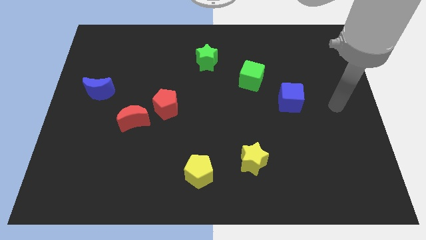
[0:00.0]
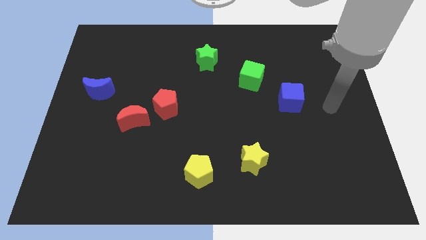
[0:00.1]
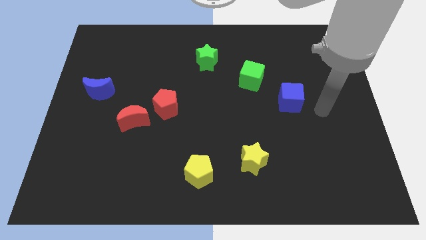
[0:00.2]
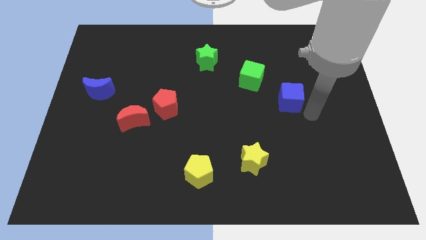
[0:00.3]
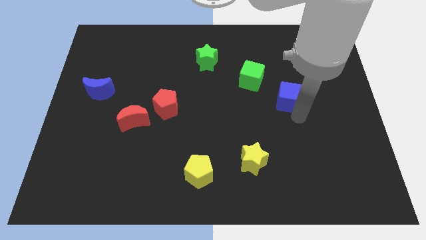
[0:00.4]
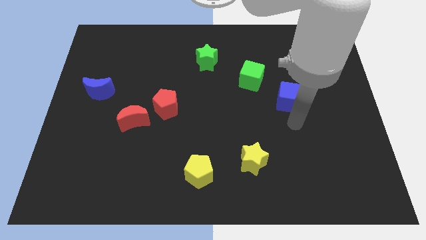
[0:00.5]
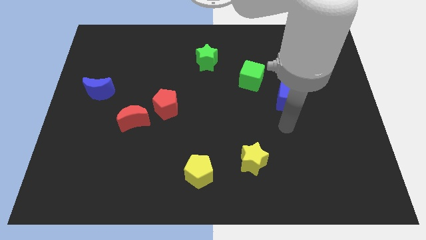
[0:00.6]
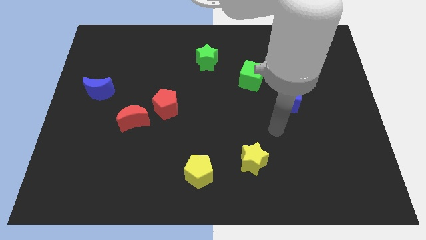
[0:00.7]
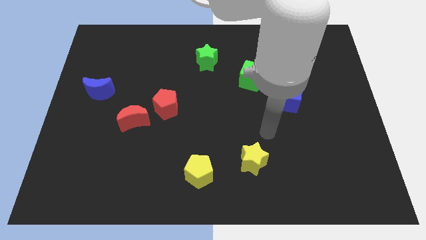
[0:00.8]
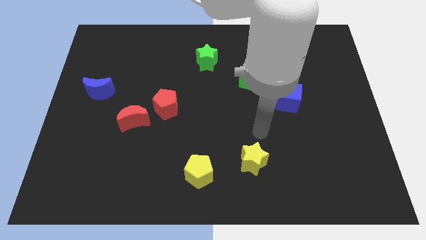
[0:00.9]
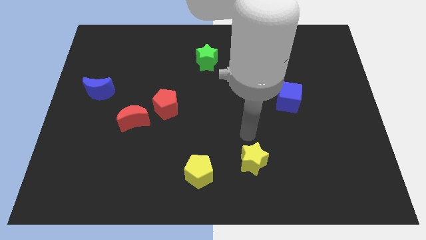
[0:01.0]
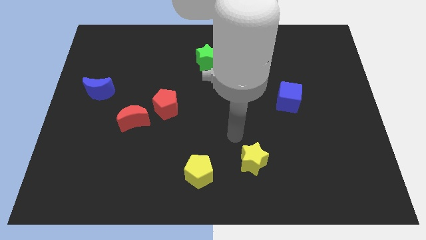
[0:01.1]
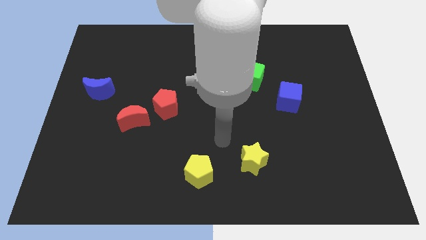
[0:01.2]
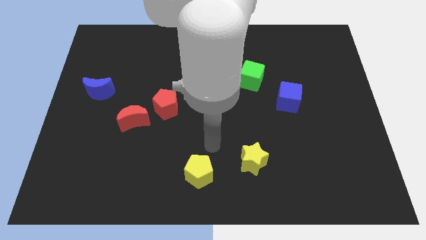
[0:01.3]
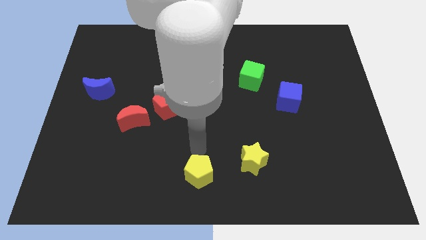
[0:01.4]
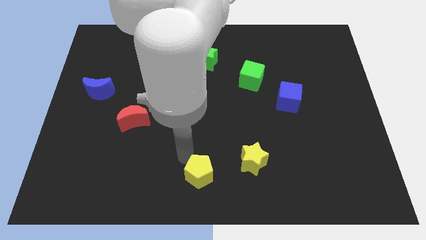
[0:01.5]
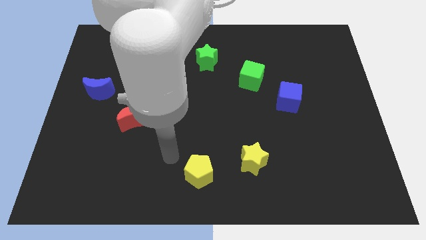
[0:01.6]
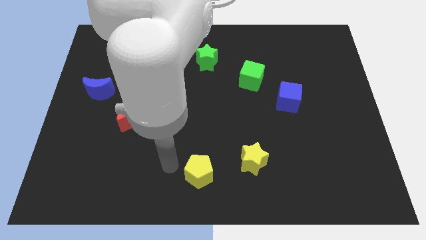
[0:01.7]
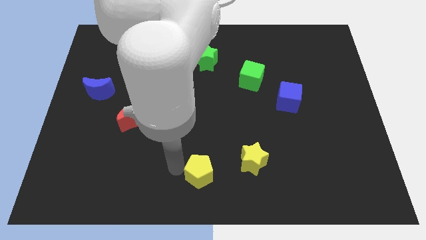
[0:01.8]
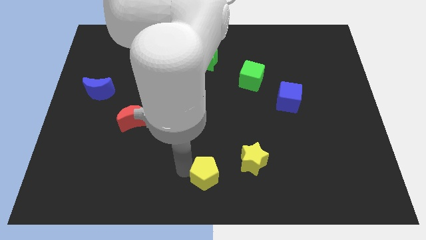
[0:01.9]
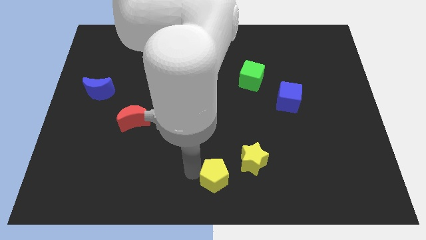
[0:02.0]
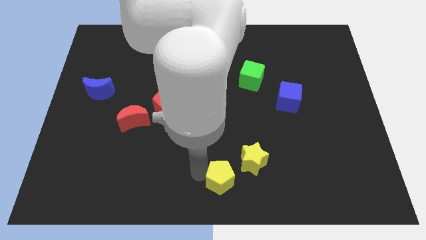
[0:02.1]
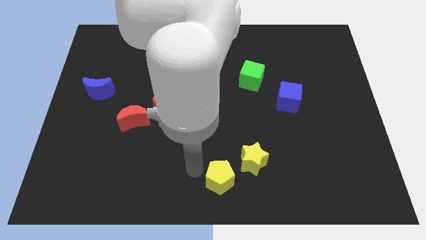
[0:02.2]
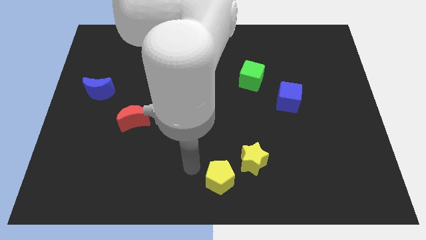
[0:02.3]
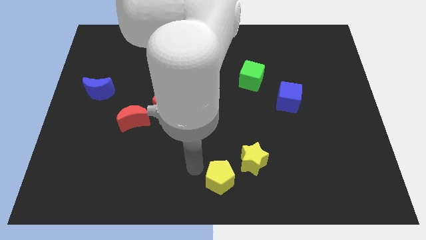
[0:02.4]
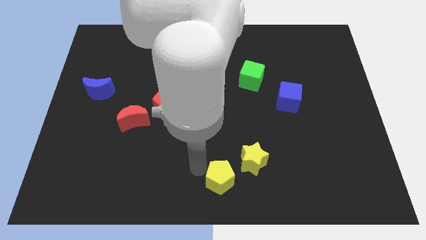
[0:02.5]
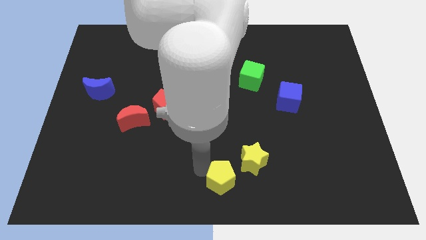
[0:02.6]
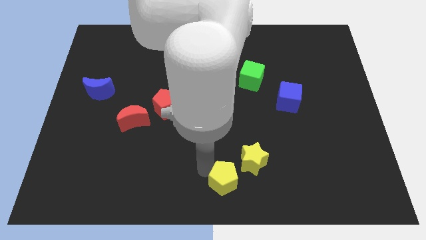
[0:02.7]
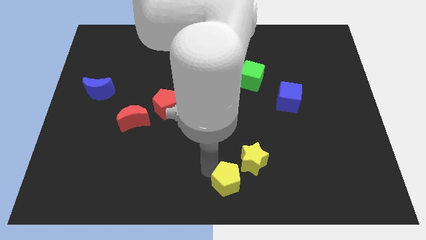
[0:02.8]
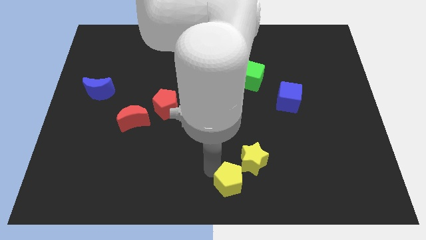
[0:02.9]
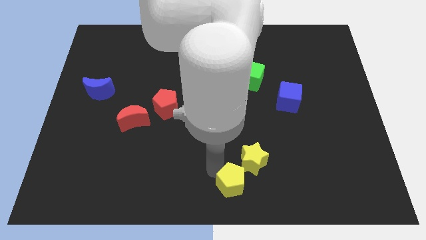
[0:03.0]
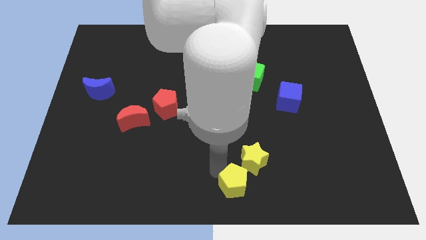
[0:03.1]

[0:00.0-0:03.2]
slightly slide the yellow pentagon to the right

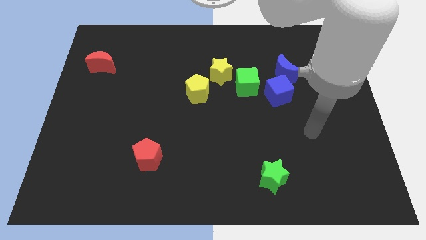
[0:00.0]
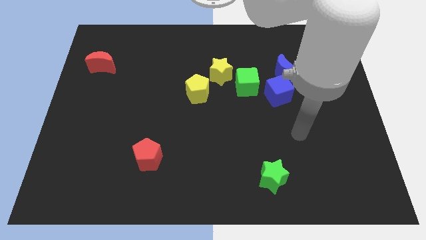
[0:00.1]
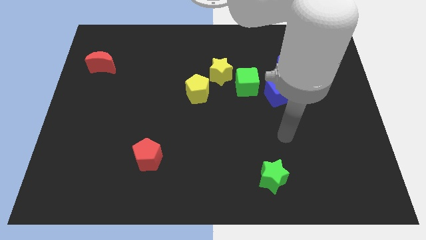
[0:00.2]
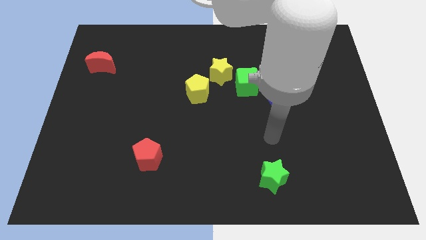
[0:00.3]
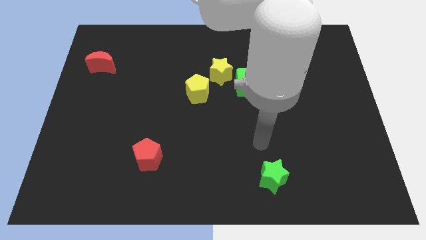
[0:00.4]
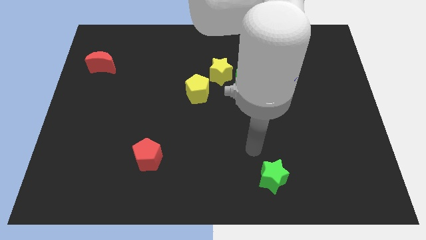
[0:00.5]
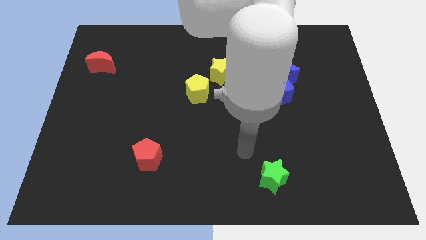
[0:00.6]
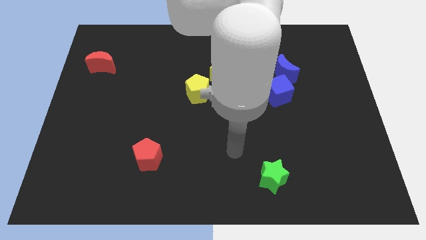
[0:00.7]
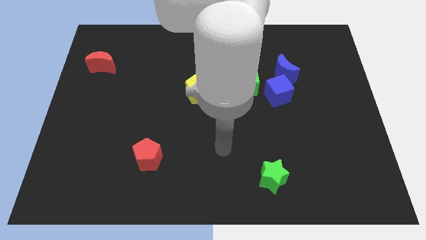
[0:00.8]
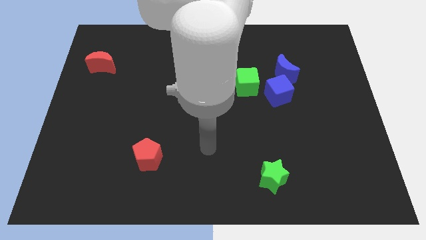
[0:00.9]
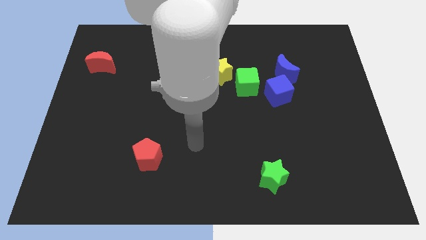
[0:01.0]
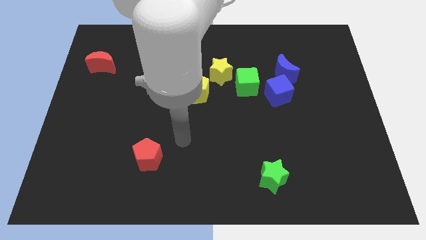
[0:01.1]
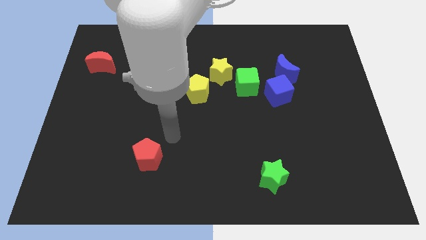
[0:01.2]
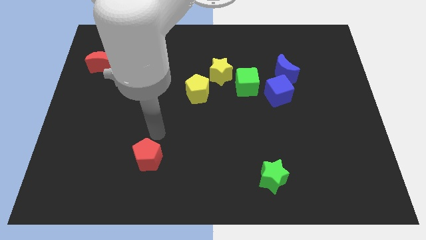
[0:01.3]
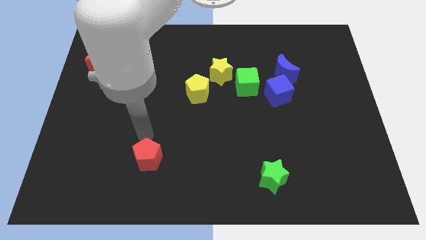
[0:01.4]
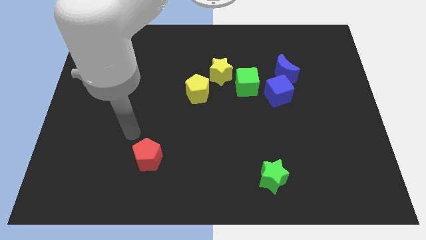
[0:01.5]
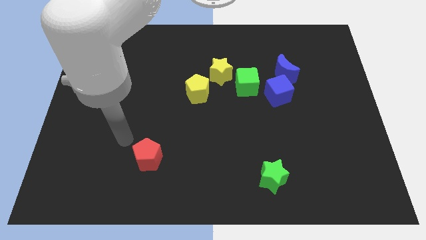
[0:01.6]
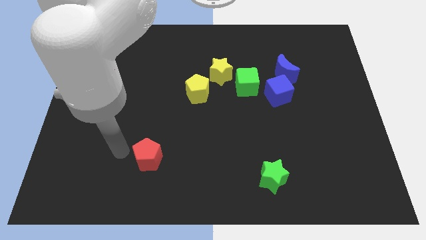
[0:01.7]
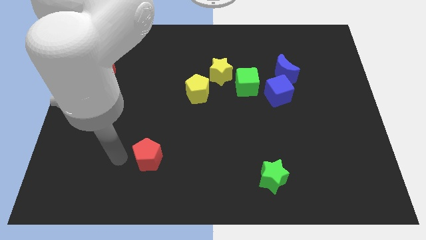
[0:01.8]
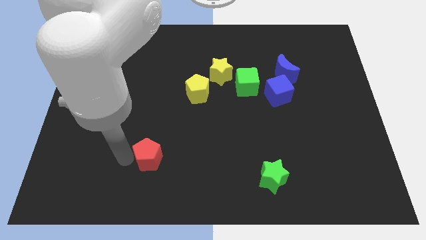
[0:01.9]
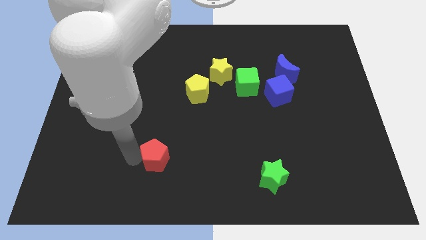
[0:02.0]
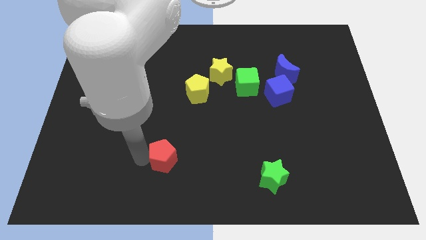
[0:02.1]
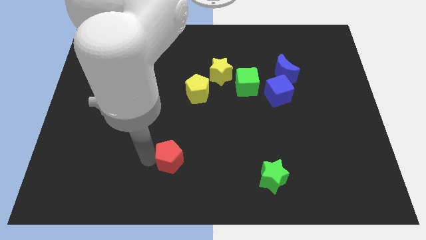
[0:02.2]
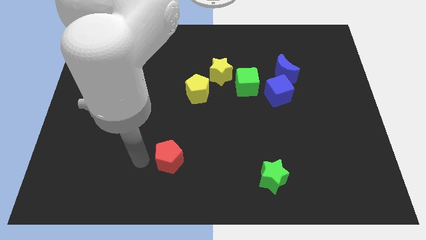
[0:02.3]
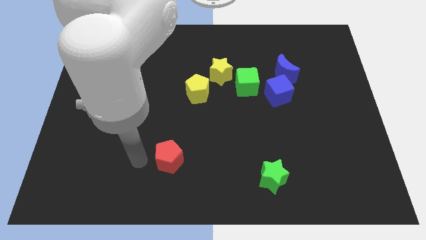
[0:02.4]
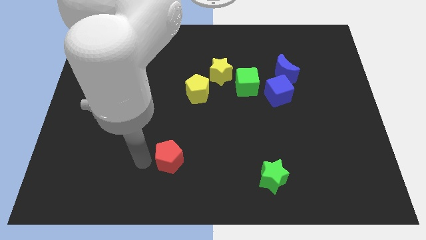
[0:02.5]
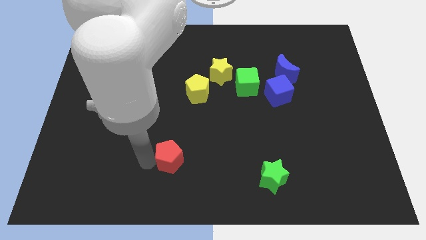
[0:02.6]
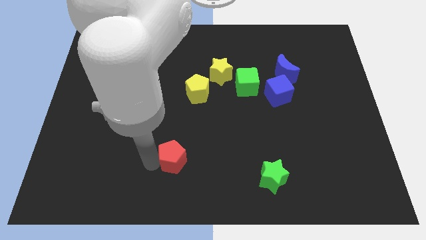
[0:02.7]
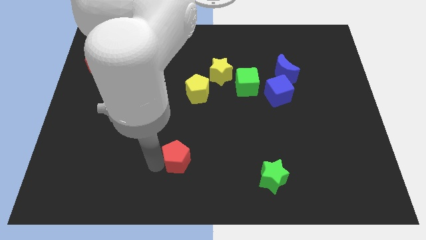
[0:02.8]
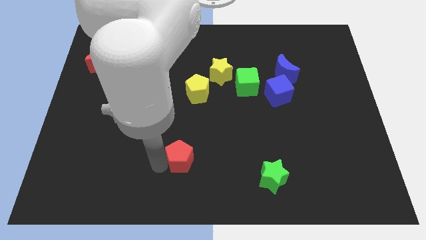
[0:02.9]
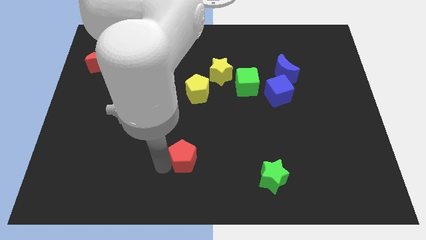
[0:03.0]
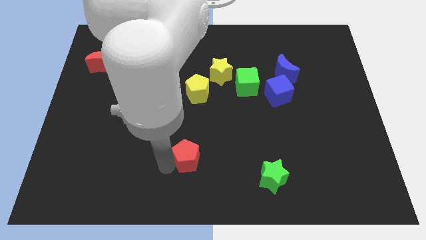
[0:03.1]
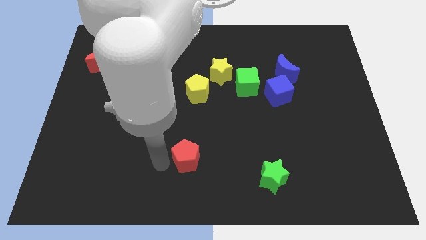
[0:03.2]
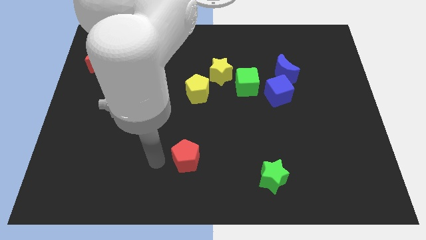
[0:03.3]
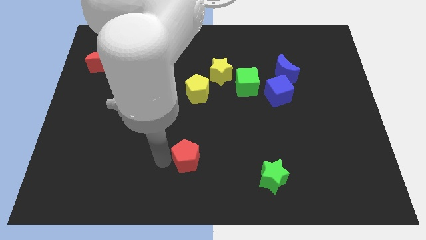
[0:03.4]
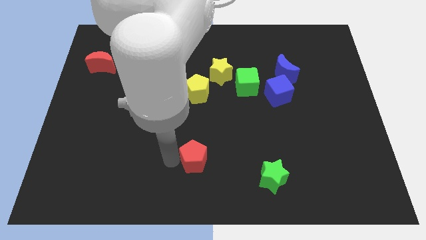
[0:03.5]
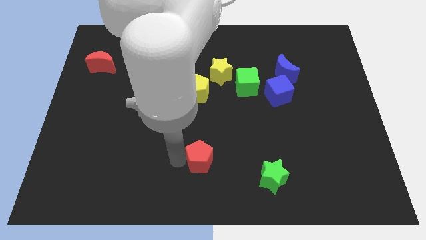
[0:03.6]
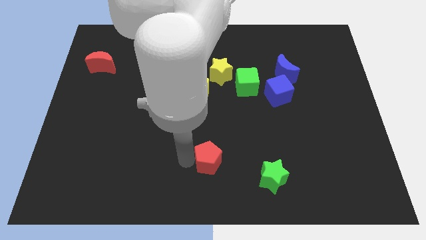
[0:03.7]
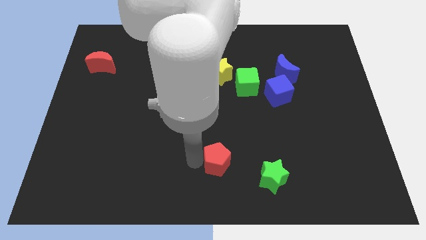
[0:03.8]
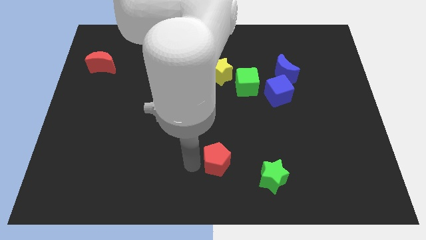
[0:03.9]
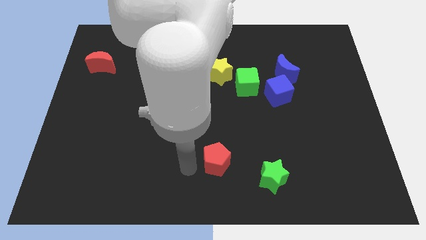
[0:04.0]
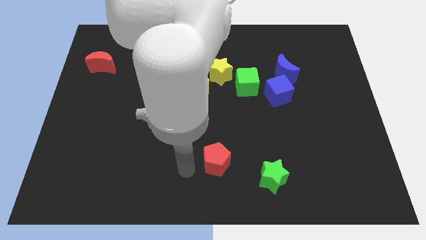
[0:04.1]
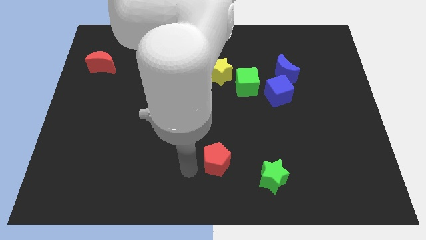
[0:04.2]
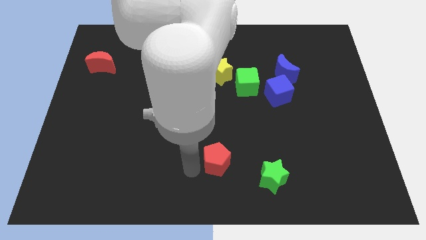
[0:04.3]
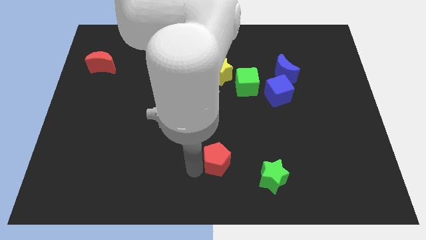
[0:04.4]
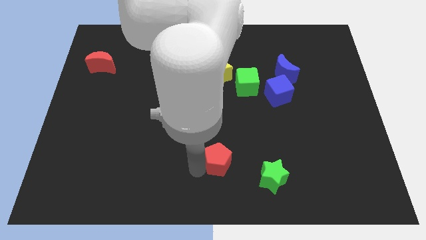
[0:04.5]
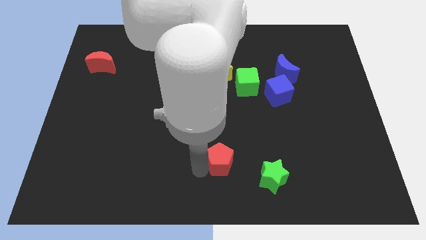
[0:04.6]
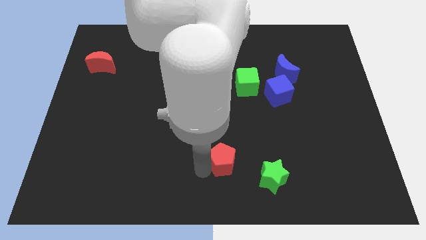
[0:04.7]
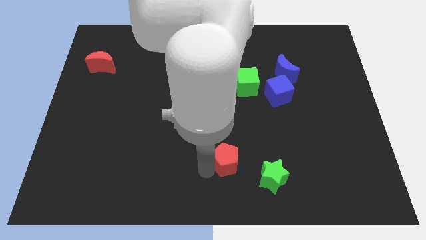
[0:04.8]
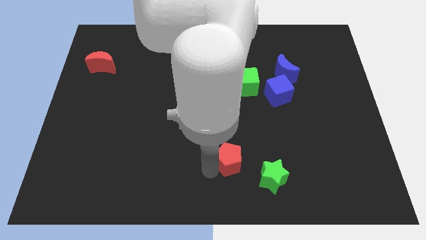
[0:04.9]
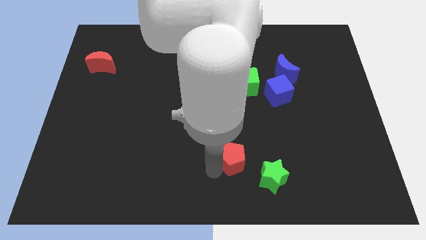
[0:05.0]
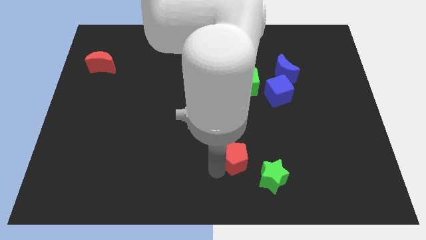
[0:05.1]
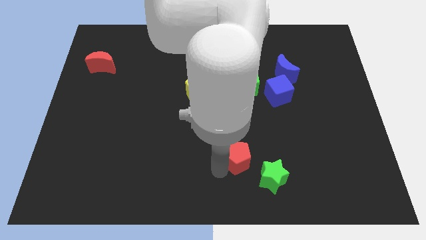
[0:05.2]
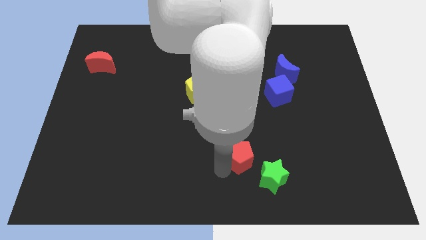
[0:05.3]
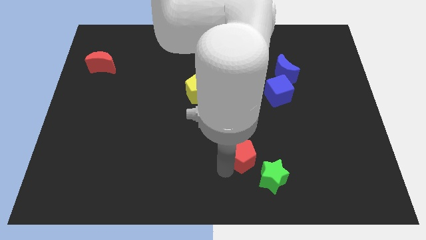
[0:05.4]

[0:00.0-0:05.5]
slide the red pentagon right

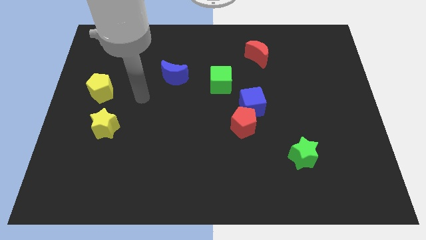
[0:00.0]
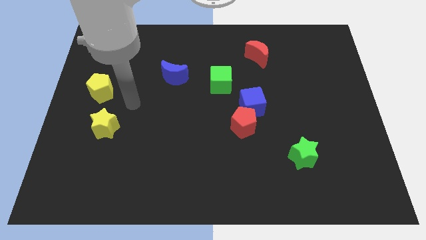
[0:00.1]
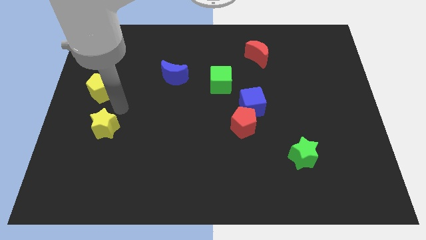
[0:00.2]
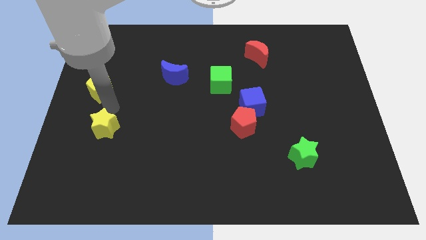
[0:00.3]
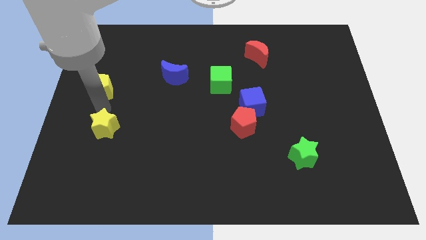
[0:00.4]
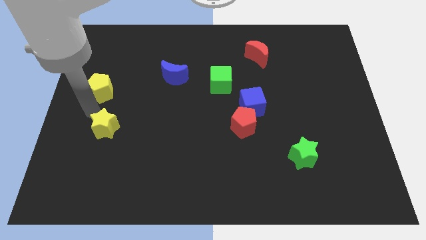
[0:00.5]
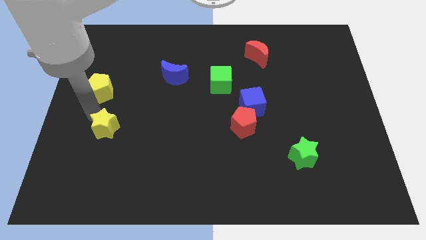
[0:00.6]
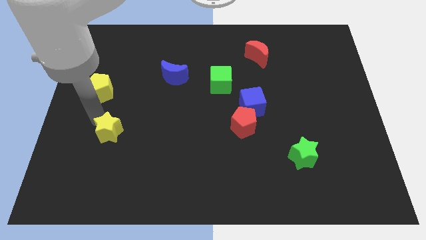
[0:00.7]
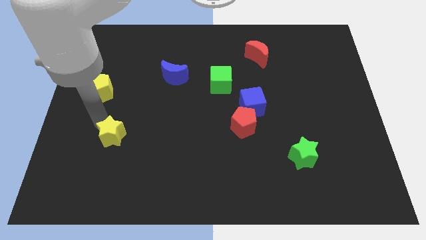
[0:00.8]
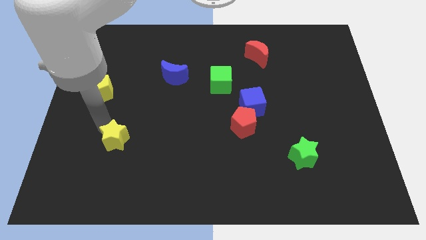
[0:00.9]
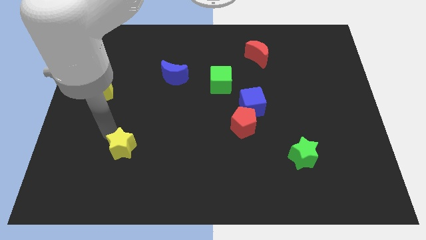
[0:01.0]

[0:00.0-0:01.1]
slide the yellow star a bit down and to the right
